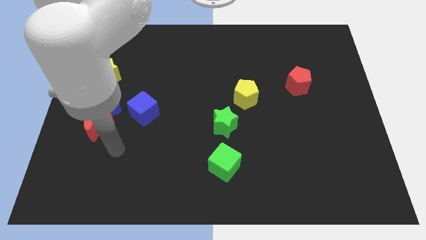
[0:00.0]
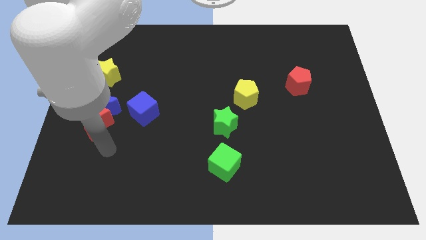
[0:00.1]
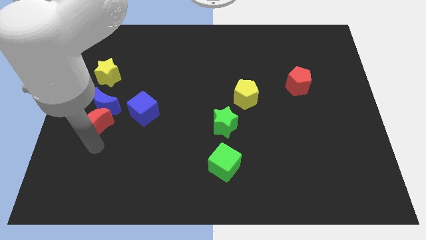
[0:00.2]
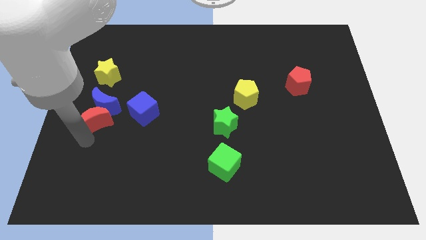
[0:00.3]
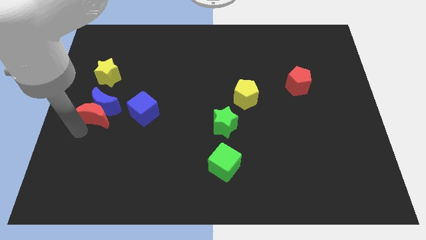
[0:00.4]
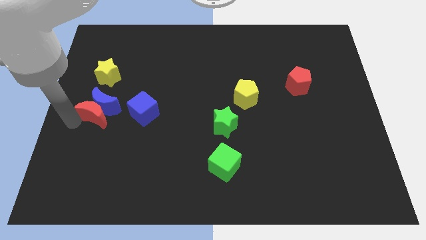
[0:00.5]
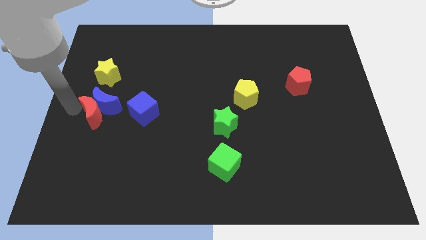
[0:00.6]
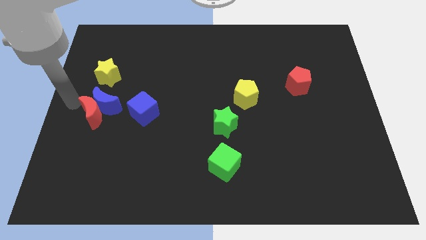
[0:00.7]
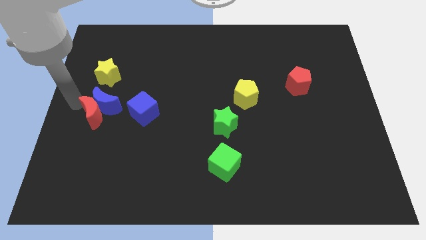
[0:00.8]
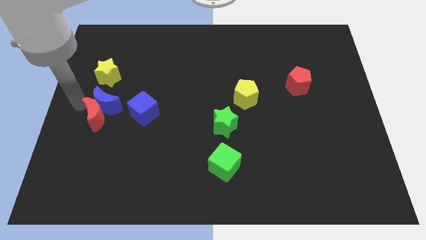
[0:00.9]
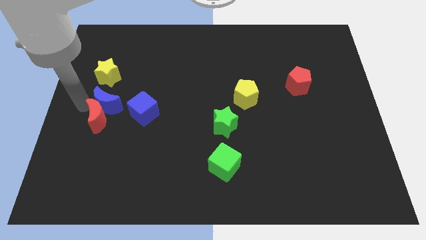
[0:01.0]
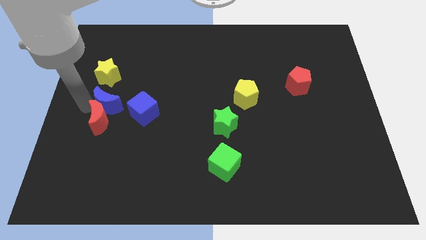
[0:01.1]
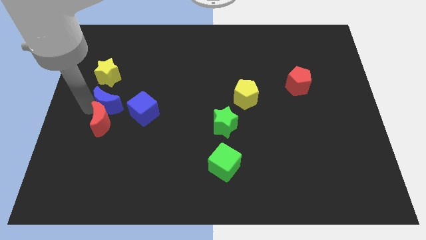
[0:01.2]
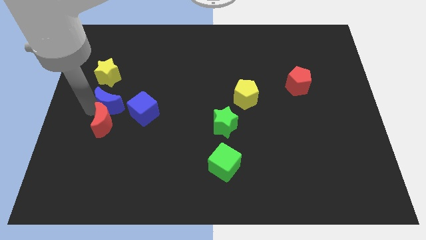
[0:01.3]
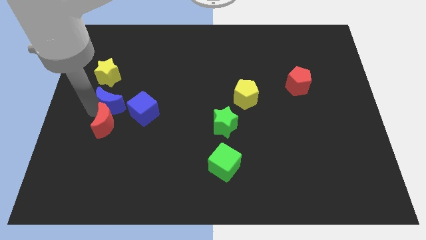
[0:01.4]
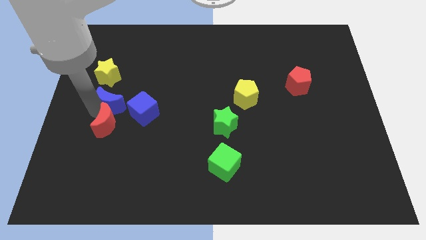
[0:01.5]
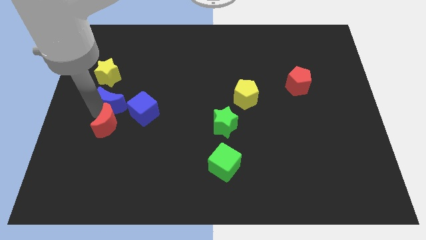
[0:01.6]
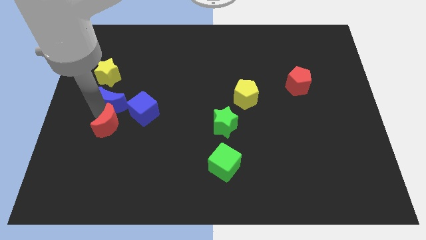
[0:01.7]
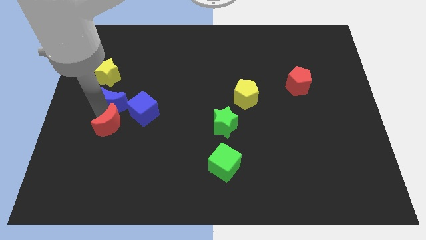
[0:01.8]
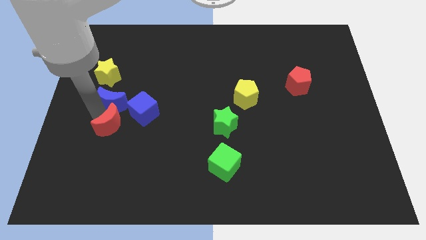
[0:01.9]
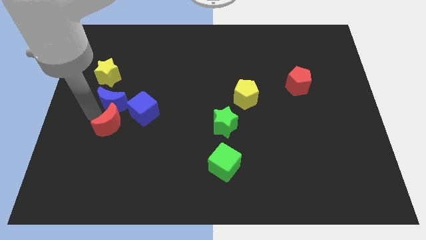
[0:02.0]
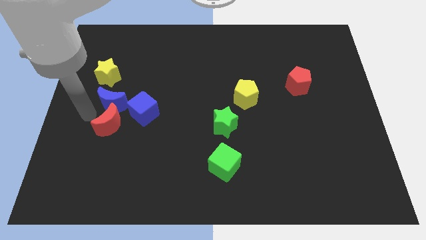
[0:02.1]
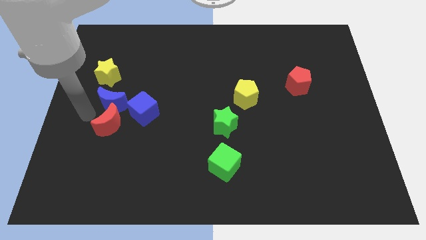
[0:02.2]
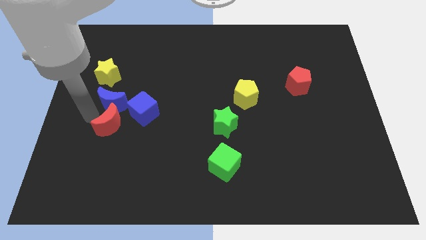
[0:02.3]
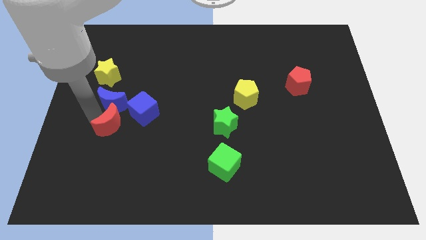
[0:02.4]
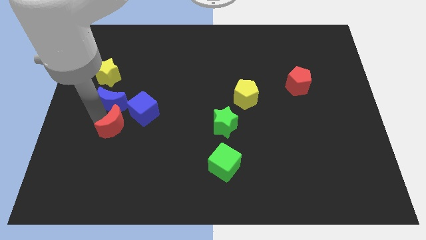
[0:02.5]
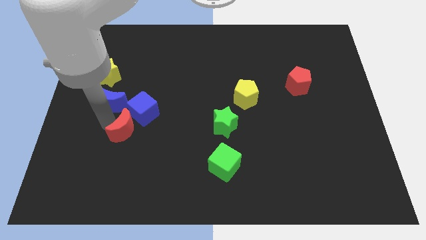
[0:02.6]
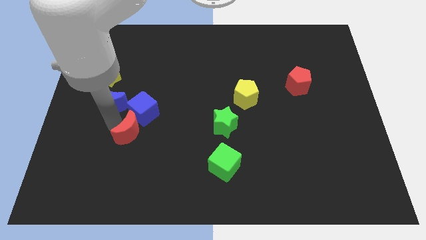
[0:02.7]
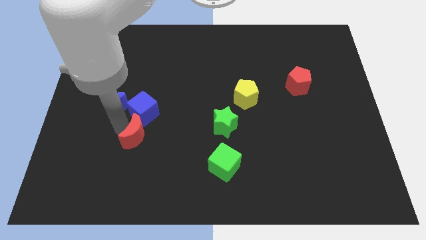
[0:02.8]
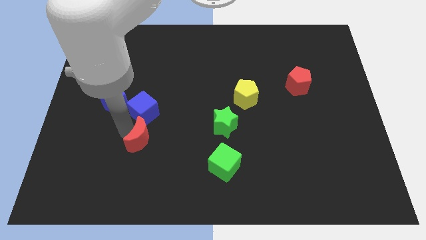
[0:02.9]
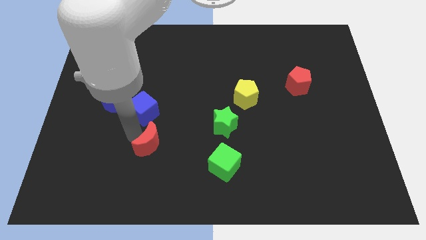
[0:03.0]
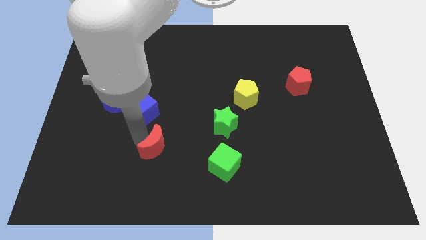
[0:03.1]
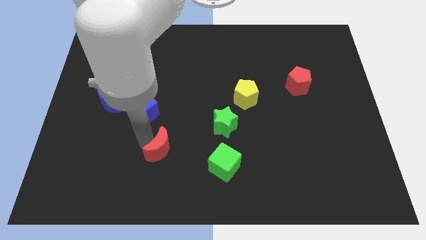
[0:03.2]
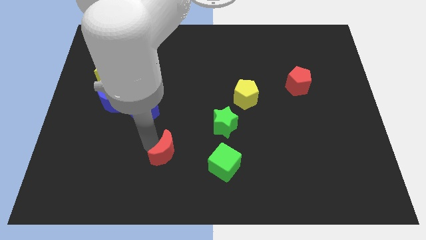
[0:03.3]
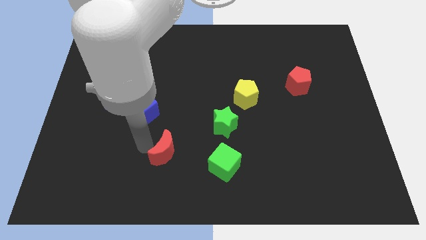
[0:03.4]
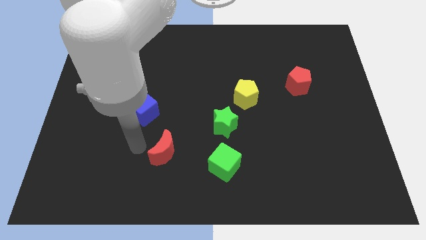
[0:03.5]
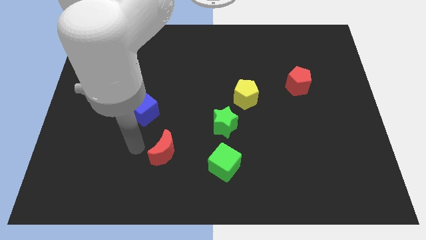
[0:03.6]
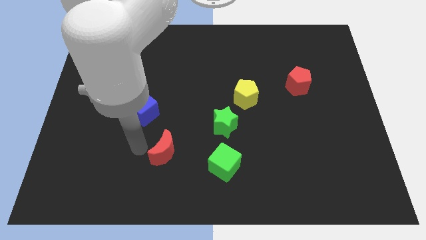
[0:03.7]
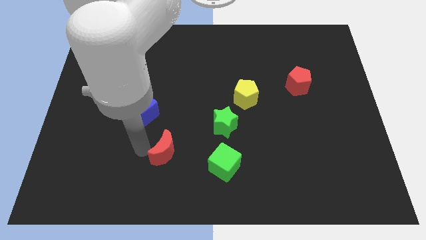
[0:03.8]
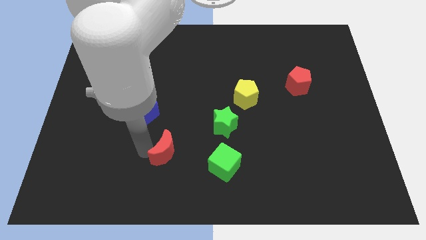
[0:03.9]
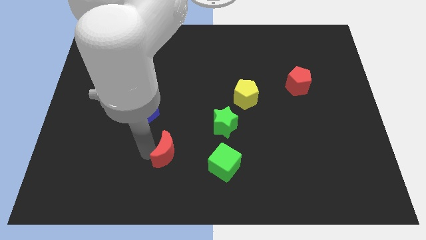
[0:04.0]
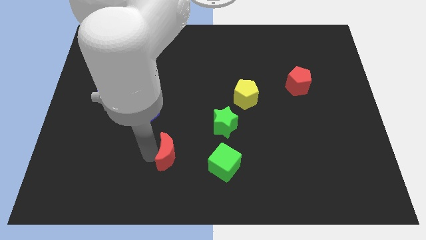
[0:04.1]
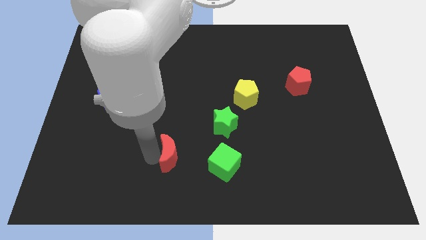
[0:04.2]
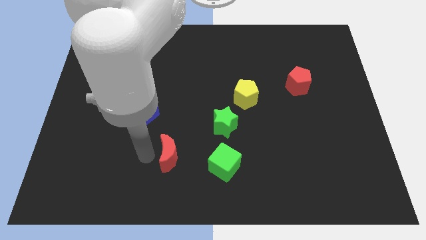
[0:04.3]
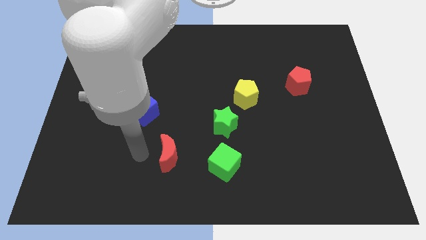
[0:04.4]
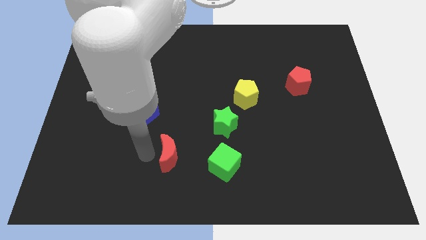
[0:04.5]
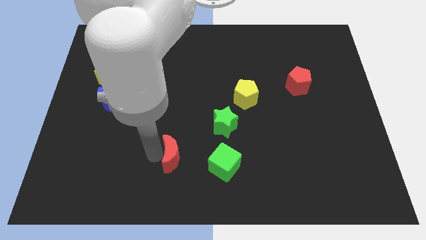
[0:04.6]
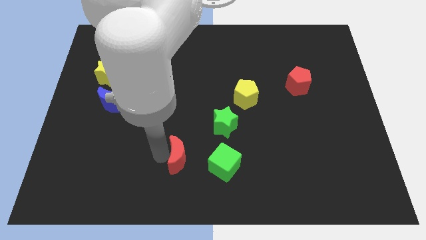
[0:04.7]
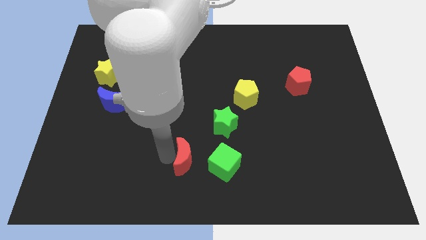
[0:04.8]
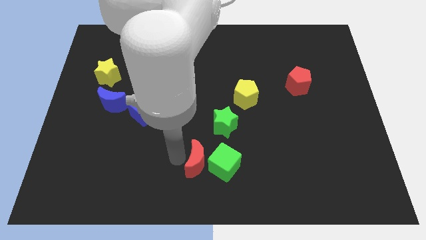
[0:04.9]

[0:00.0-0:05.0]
slide the red moon close to the green cube

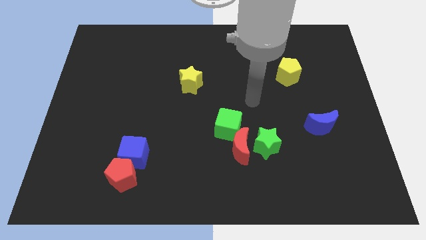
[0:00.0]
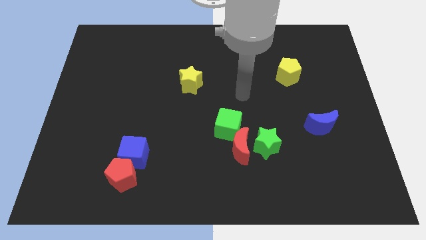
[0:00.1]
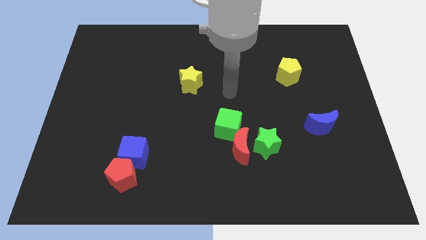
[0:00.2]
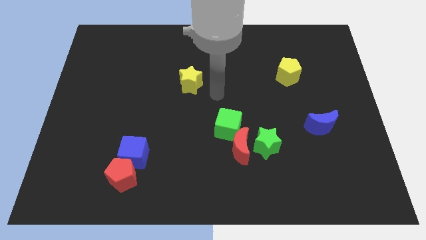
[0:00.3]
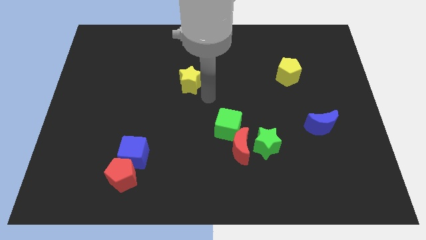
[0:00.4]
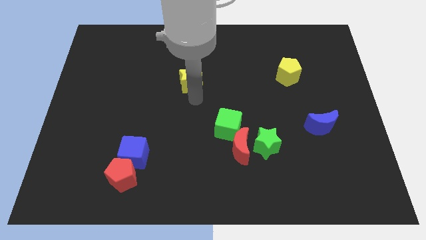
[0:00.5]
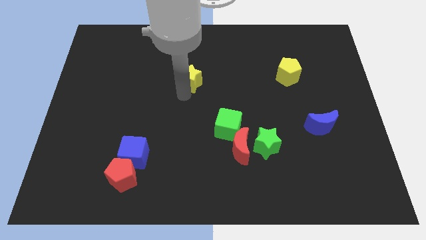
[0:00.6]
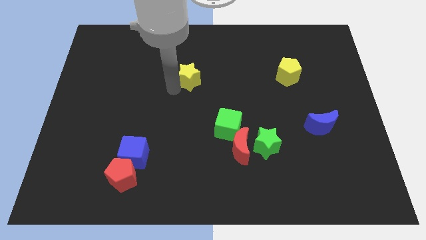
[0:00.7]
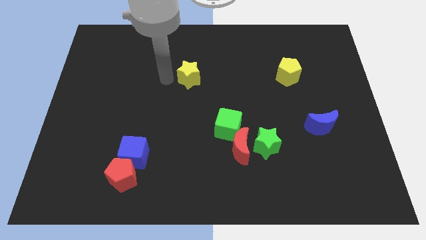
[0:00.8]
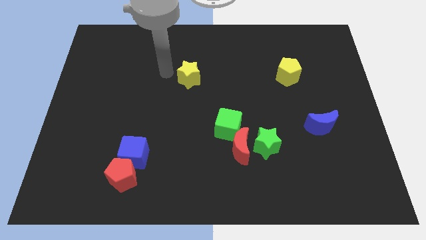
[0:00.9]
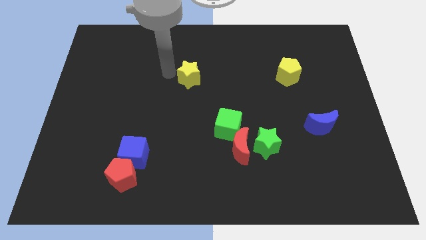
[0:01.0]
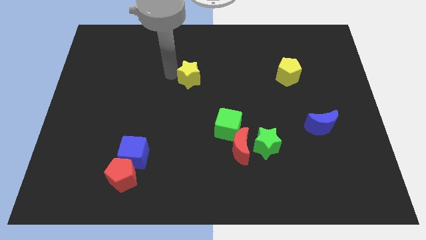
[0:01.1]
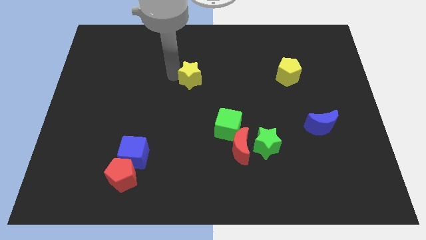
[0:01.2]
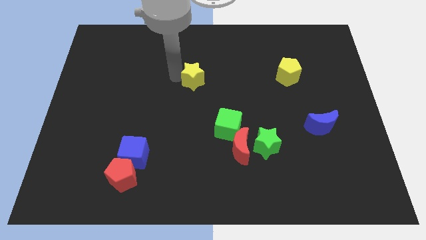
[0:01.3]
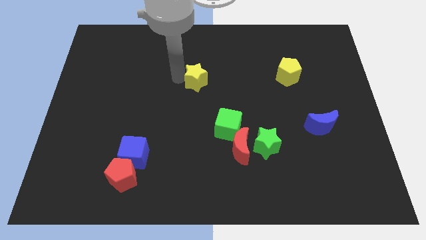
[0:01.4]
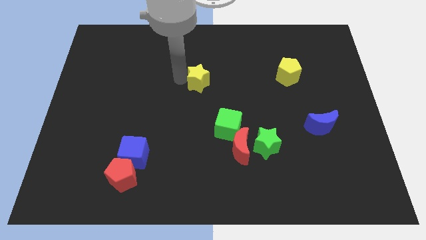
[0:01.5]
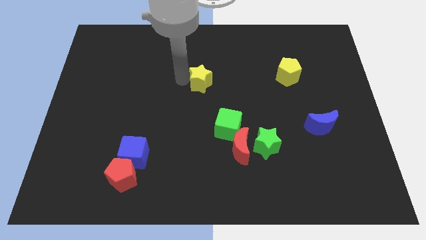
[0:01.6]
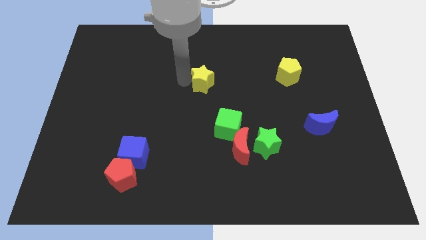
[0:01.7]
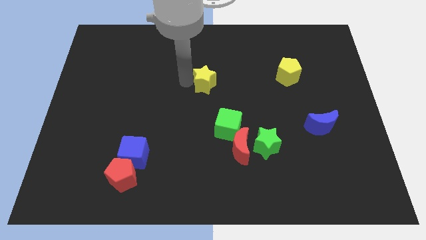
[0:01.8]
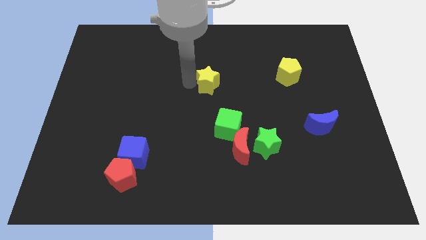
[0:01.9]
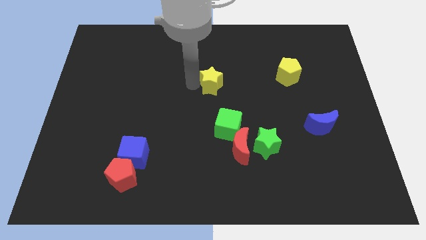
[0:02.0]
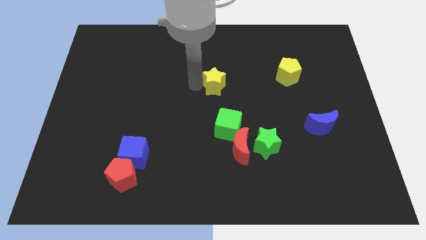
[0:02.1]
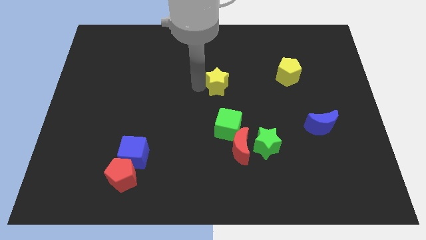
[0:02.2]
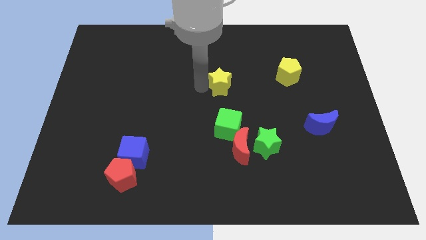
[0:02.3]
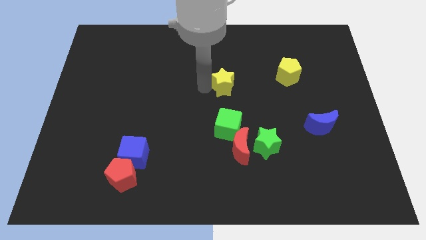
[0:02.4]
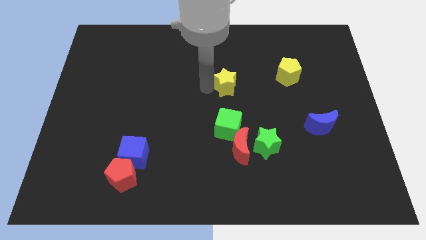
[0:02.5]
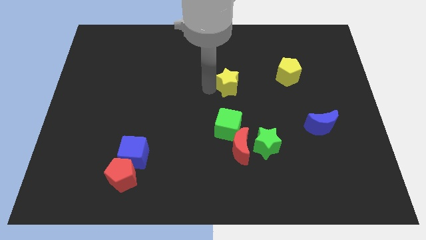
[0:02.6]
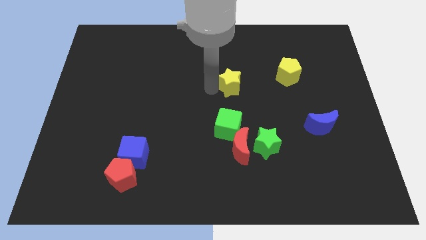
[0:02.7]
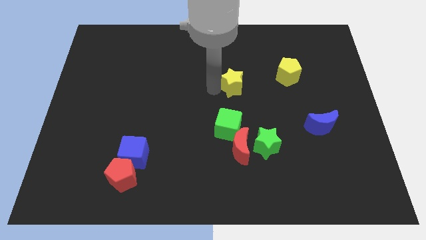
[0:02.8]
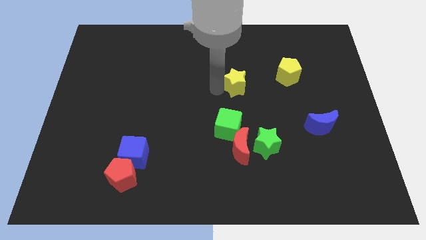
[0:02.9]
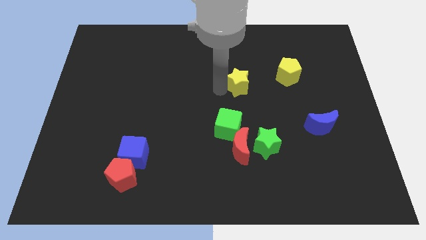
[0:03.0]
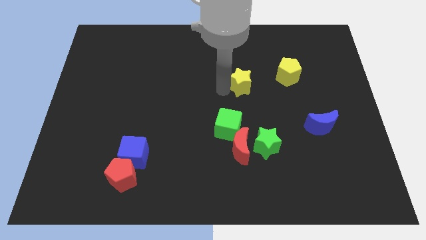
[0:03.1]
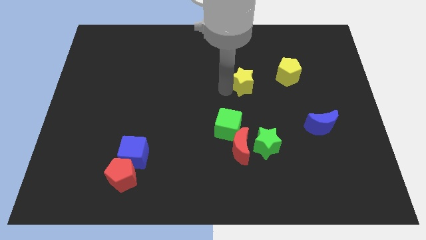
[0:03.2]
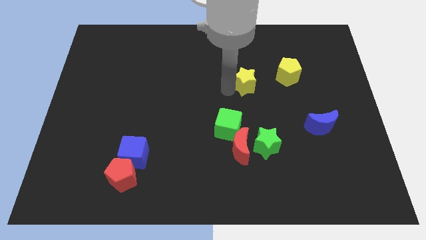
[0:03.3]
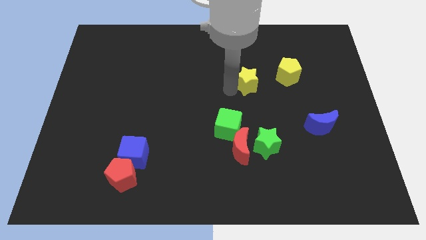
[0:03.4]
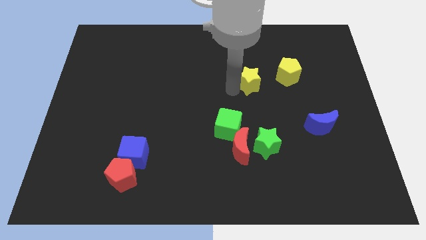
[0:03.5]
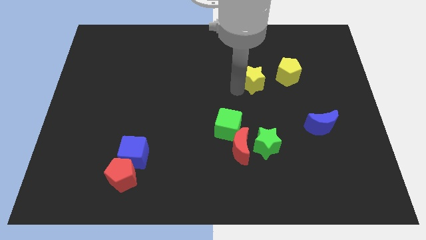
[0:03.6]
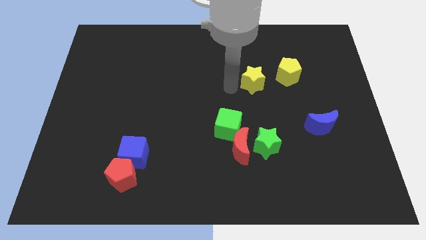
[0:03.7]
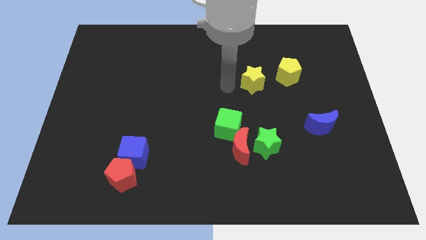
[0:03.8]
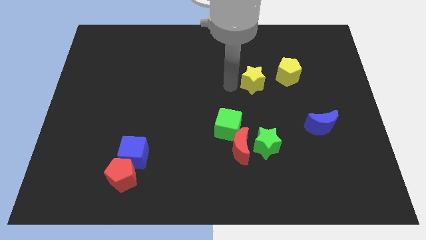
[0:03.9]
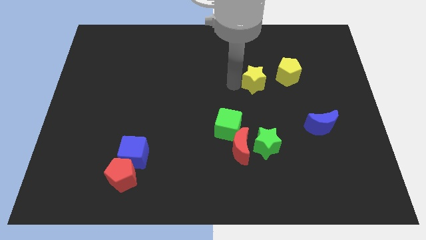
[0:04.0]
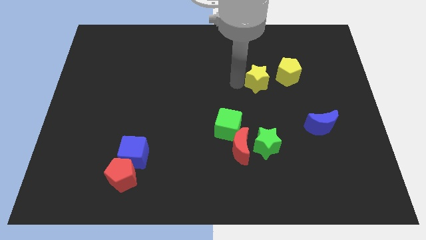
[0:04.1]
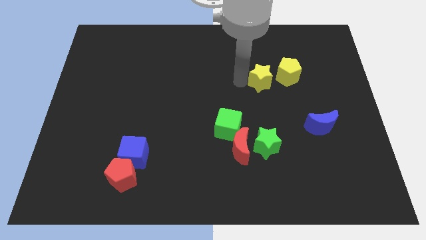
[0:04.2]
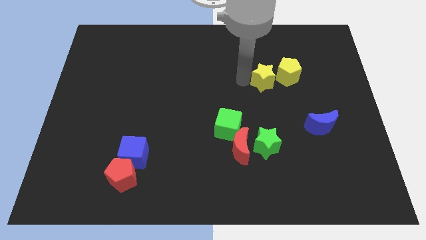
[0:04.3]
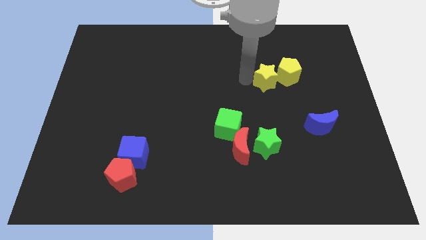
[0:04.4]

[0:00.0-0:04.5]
push the yellow star towards the yellow pentagon
